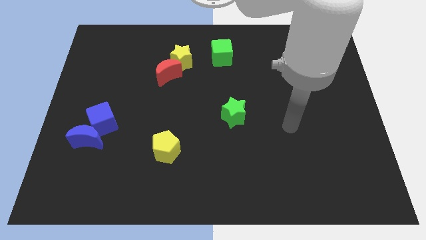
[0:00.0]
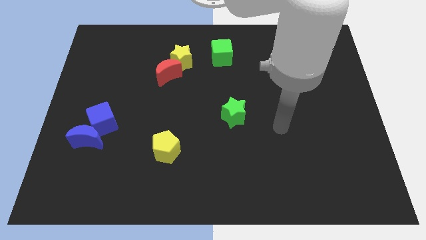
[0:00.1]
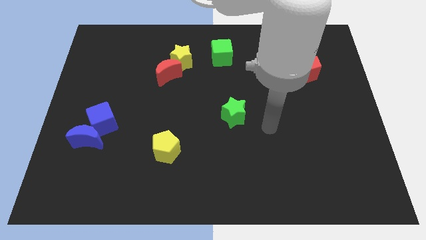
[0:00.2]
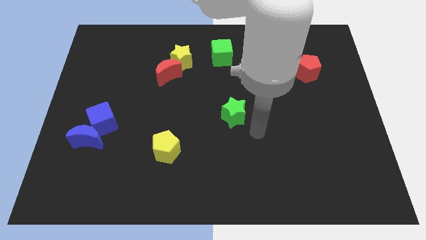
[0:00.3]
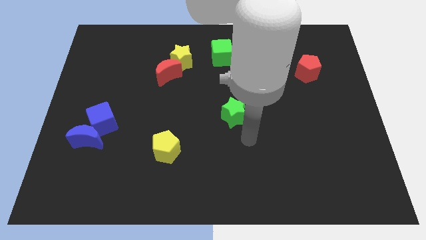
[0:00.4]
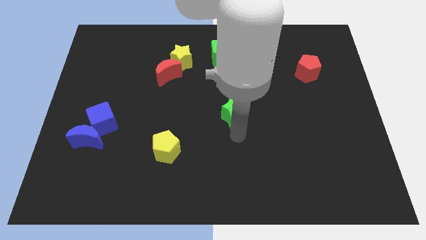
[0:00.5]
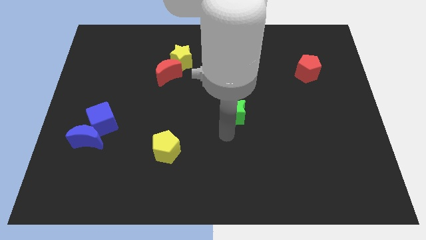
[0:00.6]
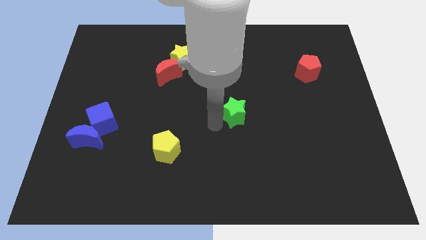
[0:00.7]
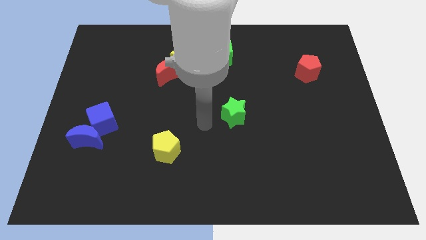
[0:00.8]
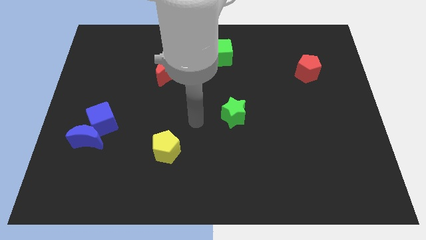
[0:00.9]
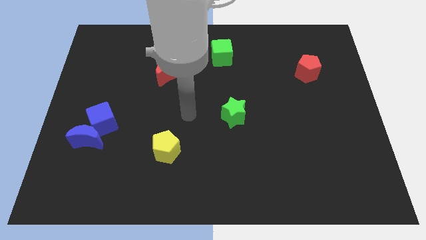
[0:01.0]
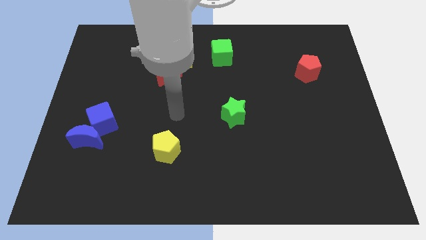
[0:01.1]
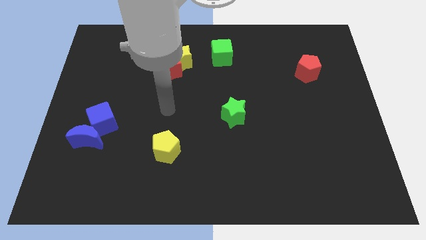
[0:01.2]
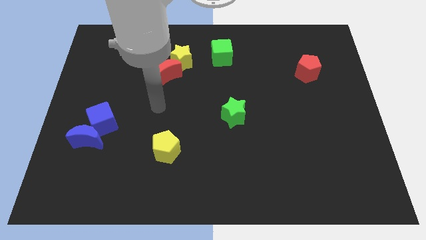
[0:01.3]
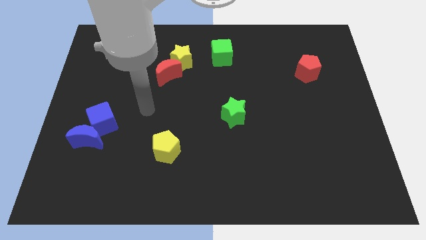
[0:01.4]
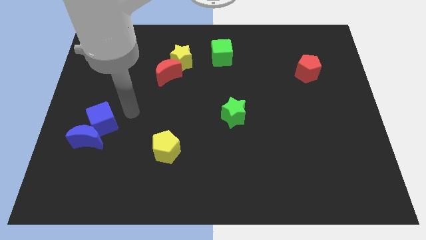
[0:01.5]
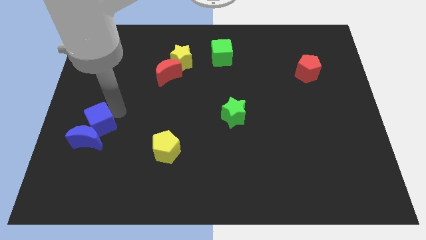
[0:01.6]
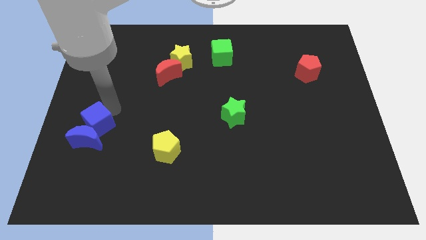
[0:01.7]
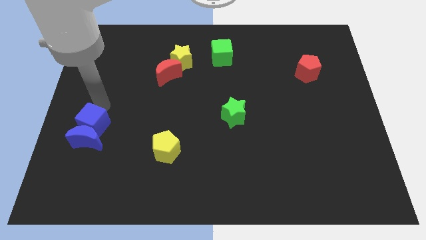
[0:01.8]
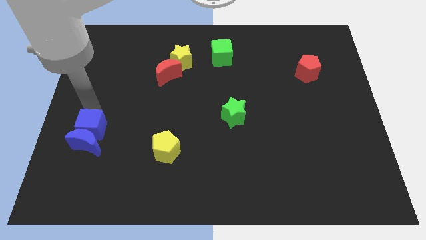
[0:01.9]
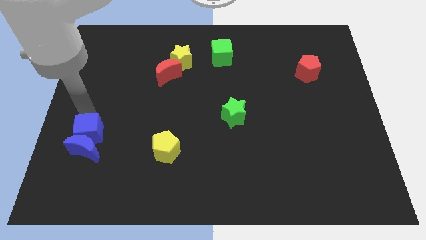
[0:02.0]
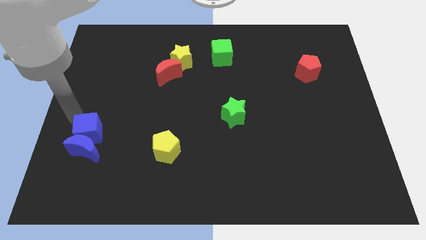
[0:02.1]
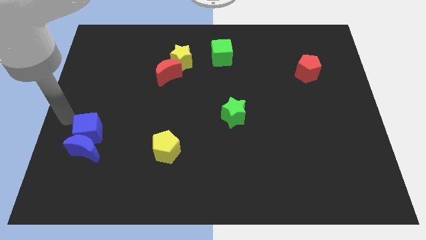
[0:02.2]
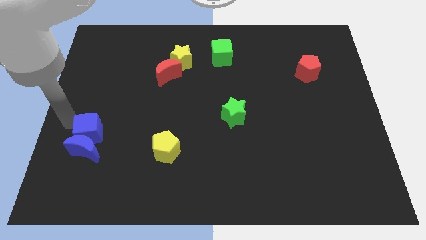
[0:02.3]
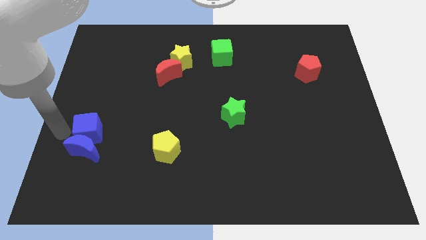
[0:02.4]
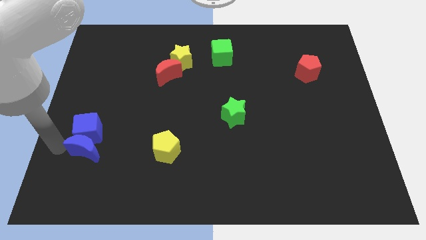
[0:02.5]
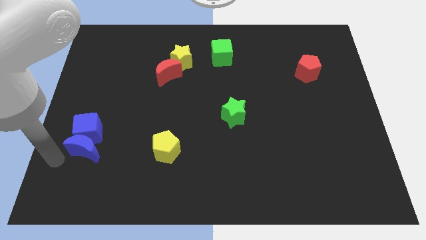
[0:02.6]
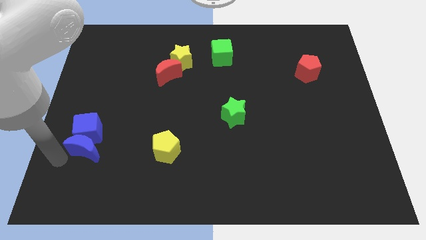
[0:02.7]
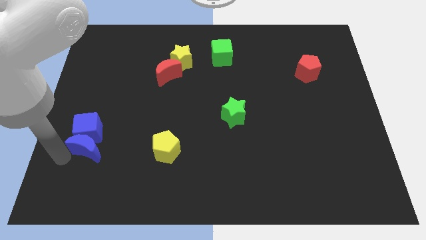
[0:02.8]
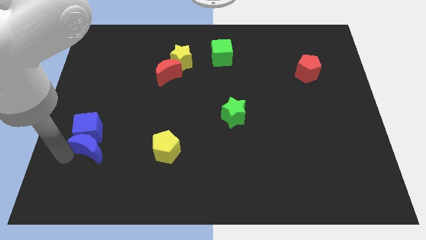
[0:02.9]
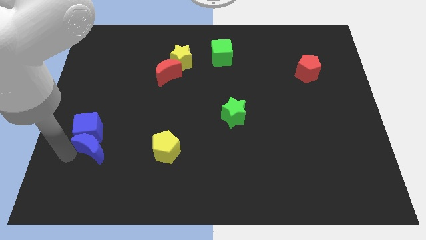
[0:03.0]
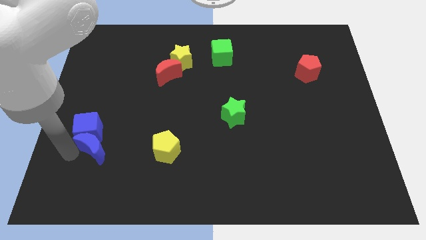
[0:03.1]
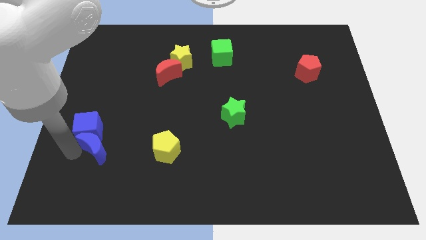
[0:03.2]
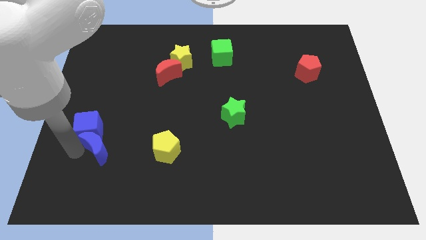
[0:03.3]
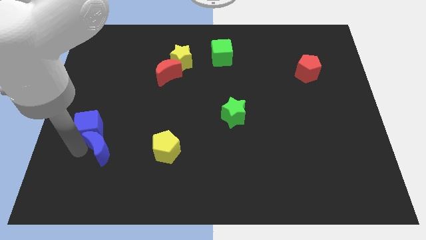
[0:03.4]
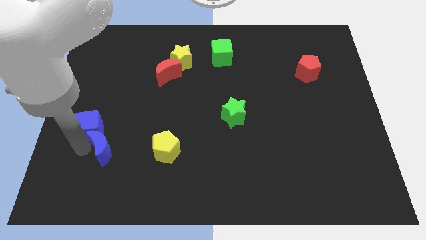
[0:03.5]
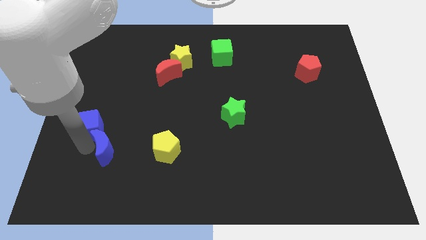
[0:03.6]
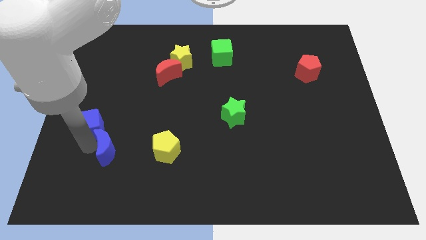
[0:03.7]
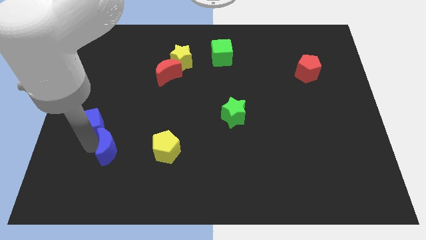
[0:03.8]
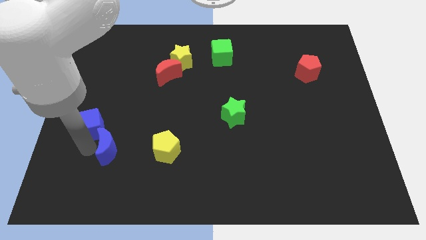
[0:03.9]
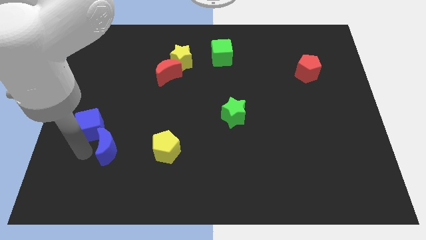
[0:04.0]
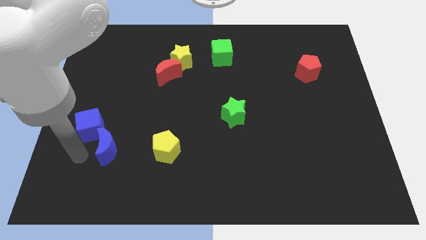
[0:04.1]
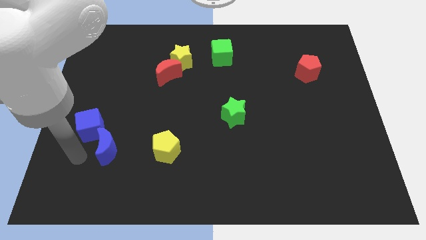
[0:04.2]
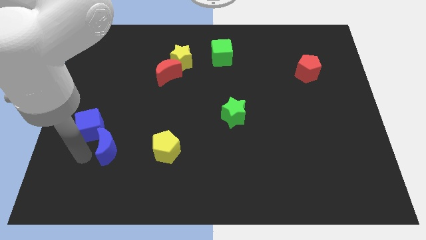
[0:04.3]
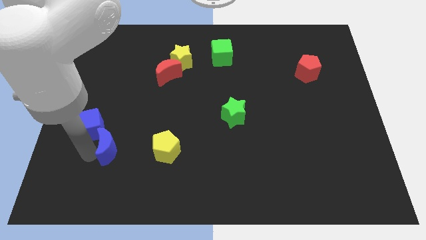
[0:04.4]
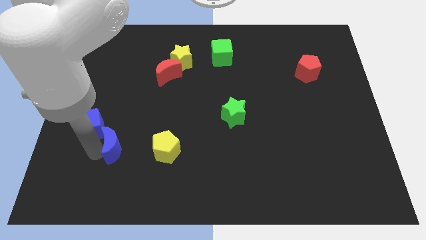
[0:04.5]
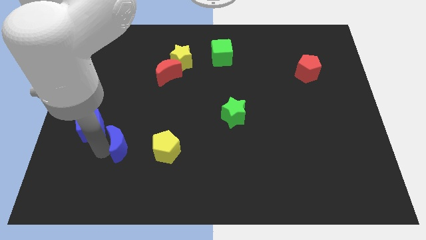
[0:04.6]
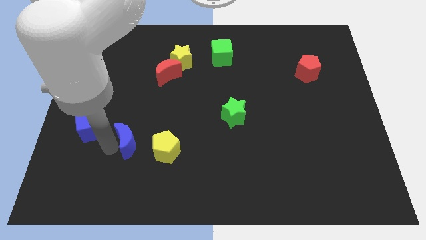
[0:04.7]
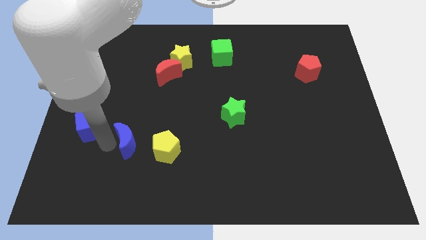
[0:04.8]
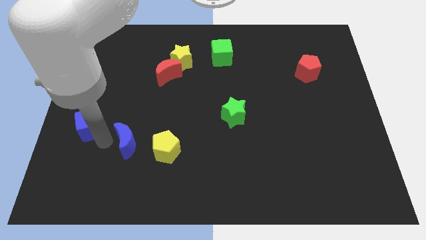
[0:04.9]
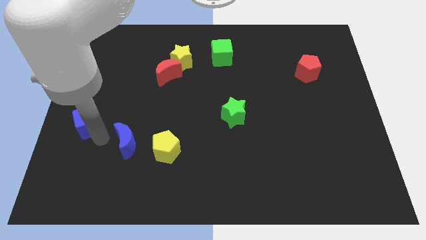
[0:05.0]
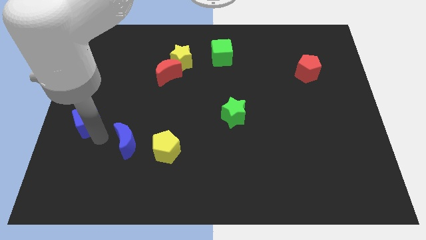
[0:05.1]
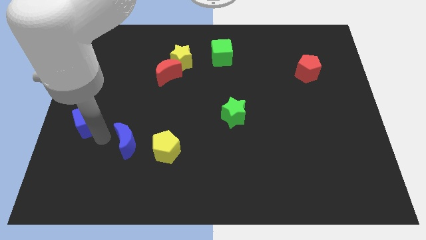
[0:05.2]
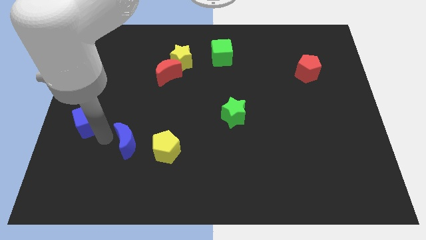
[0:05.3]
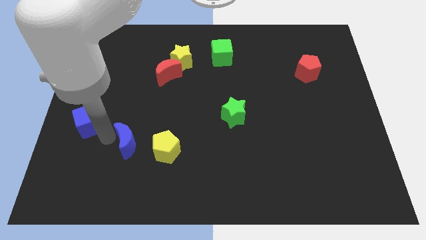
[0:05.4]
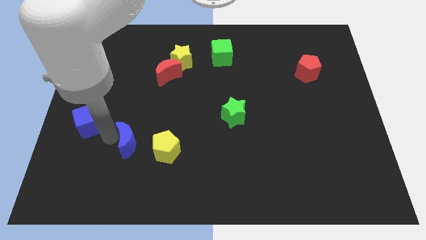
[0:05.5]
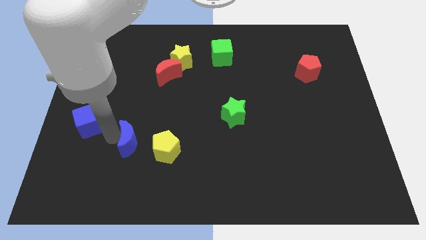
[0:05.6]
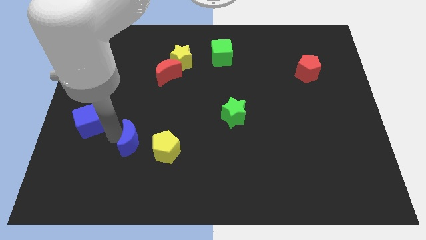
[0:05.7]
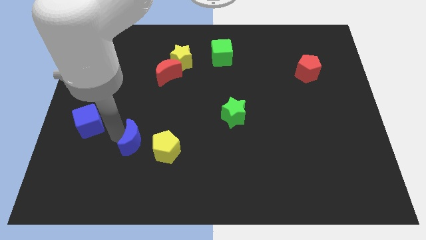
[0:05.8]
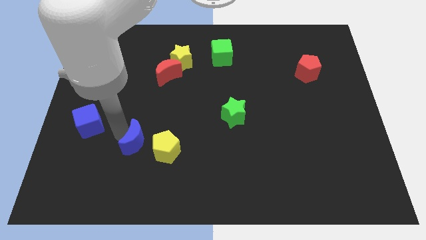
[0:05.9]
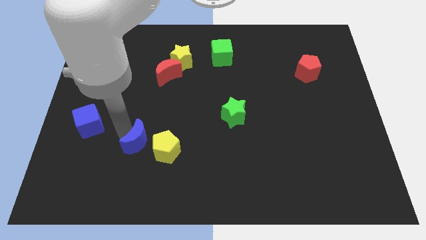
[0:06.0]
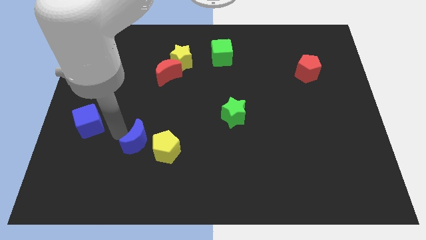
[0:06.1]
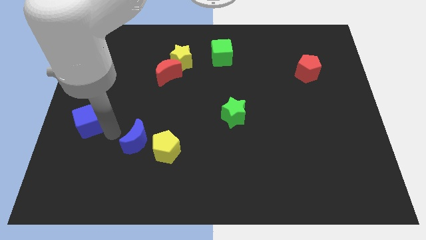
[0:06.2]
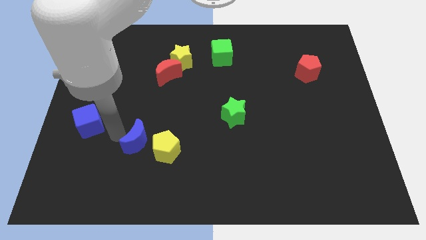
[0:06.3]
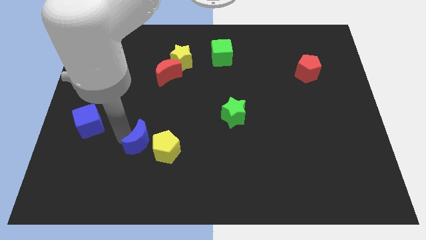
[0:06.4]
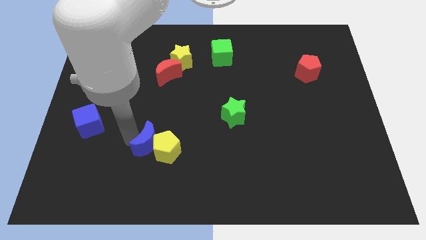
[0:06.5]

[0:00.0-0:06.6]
slide the blue moon towards the yellow pentagon

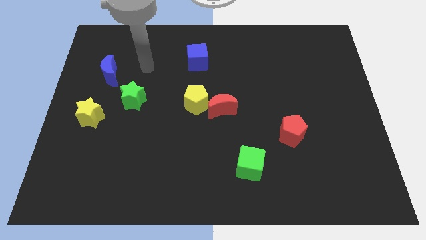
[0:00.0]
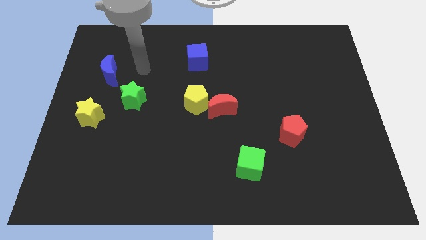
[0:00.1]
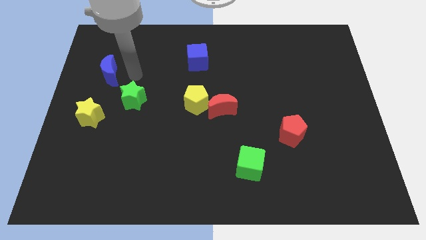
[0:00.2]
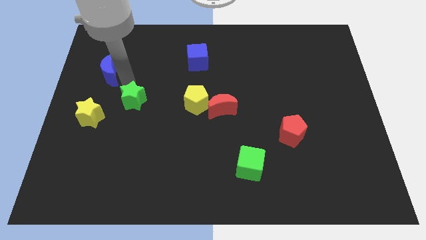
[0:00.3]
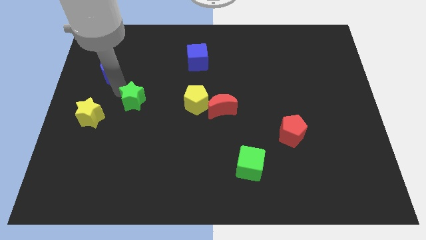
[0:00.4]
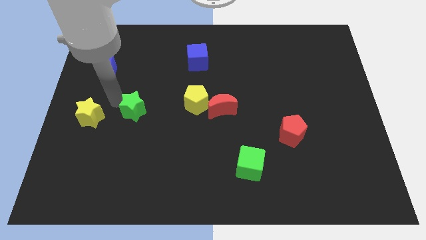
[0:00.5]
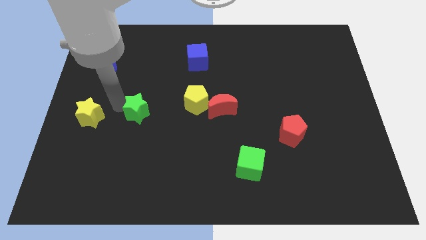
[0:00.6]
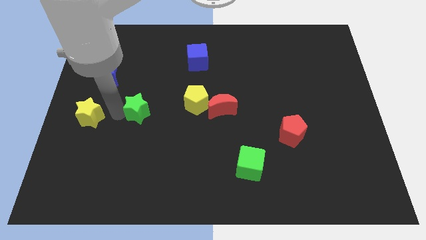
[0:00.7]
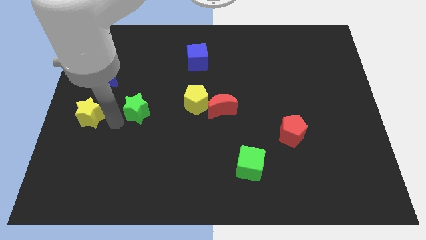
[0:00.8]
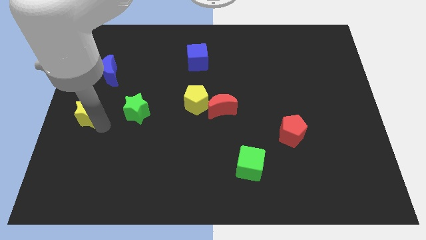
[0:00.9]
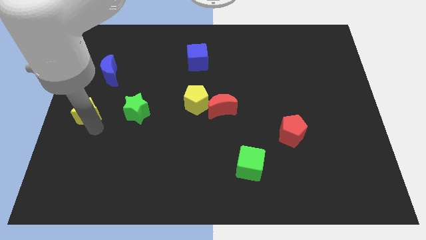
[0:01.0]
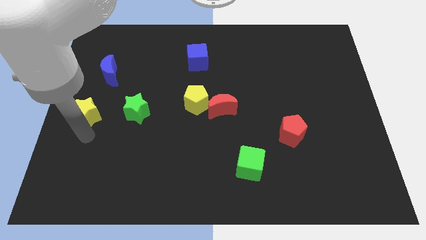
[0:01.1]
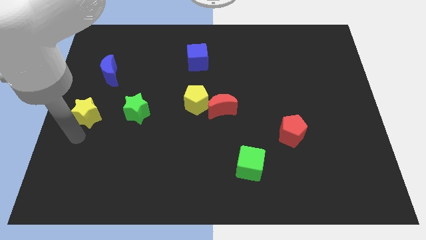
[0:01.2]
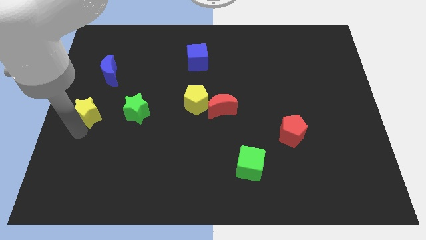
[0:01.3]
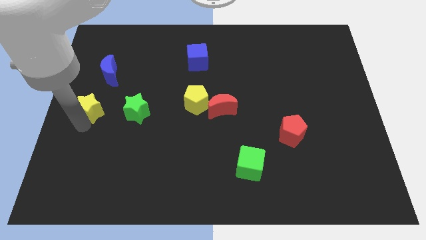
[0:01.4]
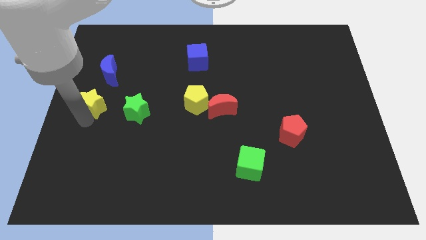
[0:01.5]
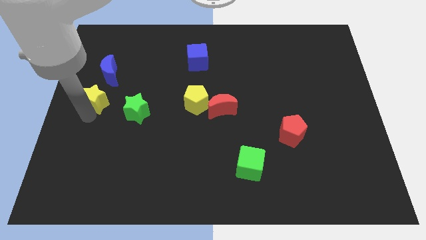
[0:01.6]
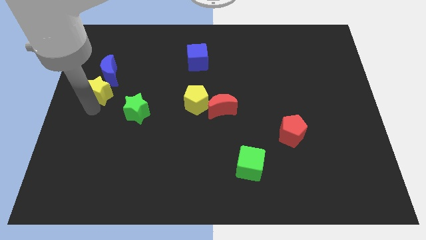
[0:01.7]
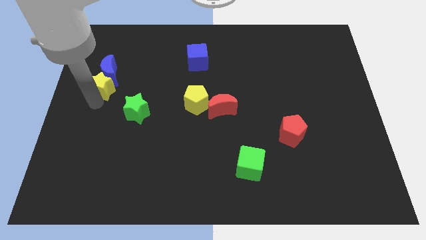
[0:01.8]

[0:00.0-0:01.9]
put the yellow star close to the blue moon
